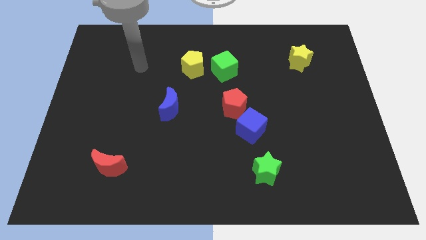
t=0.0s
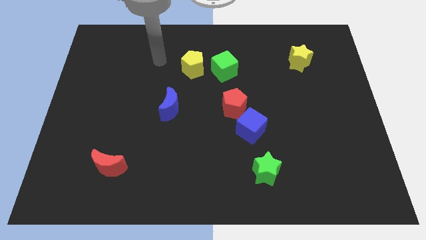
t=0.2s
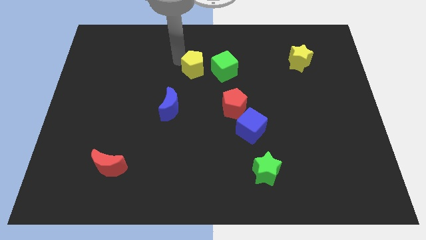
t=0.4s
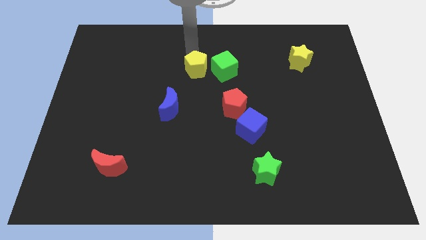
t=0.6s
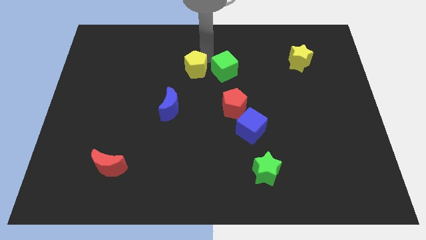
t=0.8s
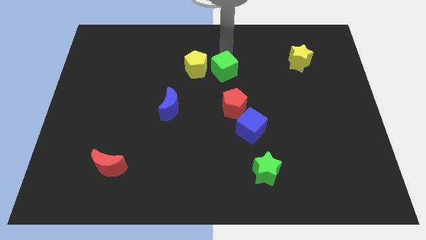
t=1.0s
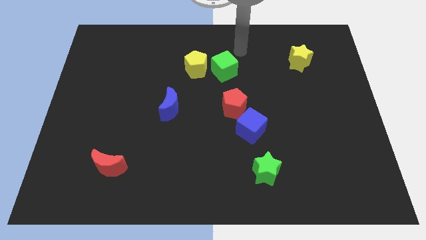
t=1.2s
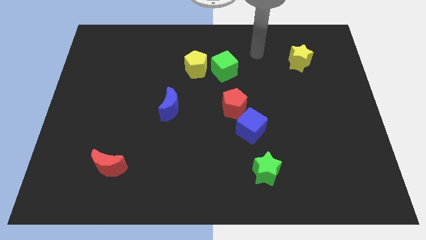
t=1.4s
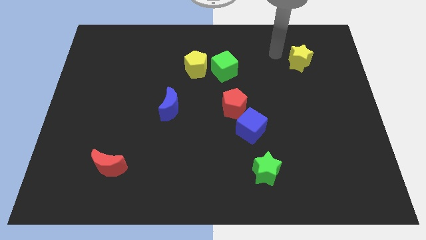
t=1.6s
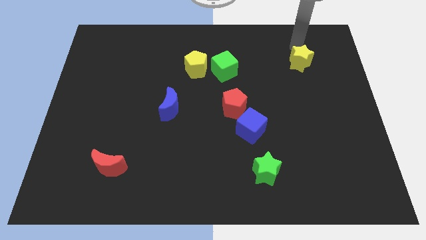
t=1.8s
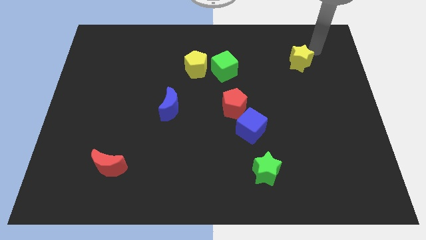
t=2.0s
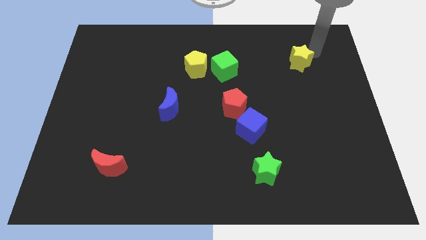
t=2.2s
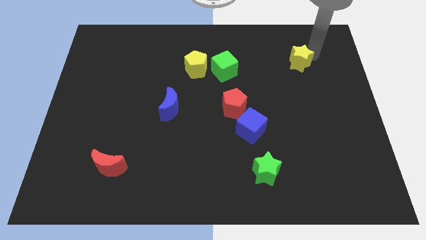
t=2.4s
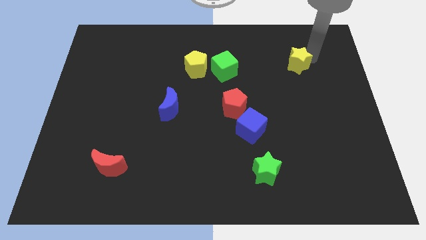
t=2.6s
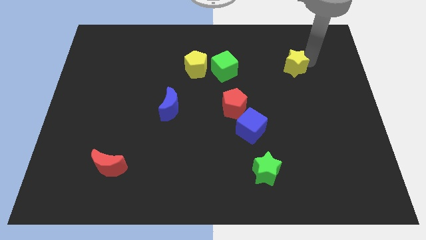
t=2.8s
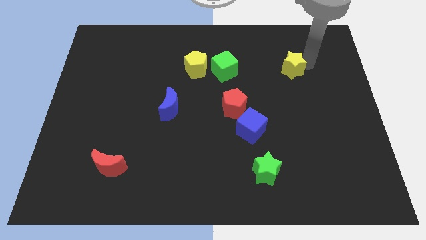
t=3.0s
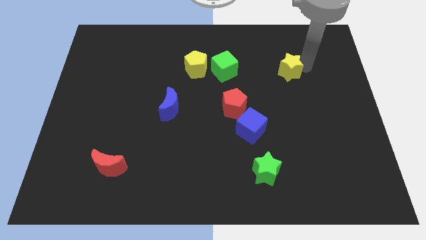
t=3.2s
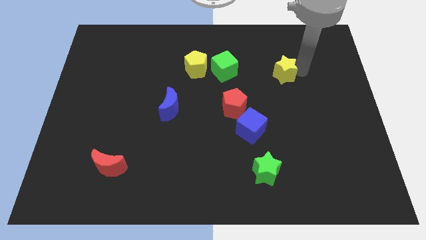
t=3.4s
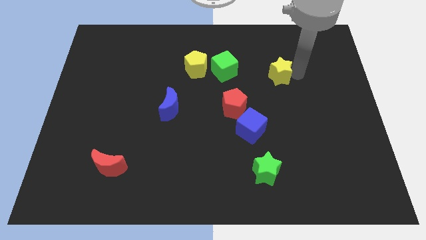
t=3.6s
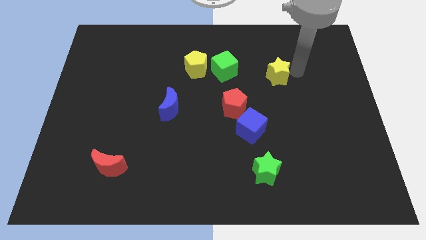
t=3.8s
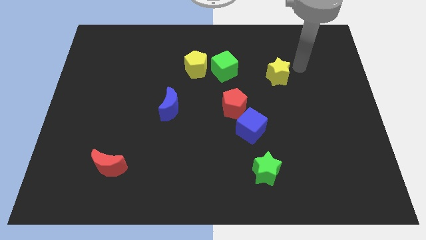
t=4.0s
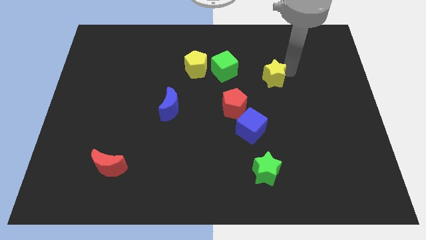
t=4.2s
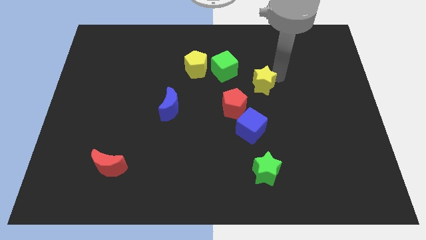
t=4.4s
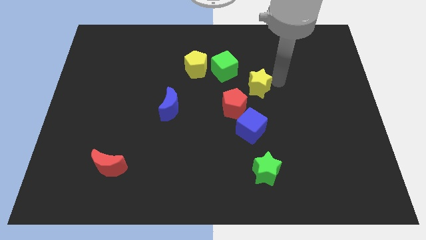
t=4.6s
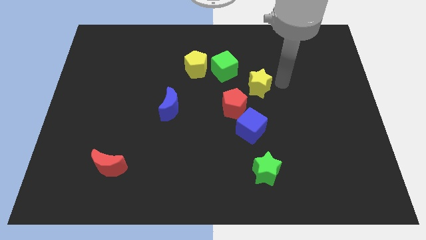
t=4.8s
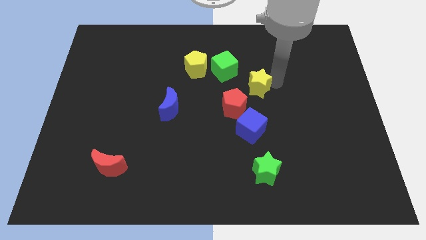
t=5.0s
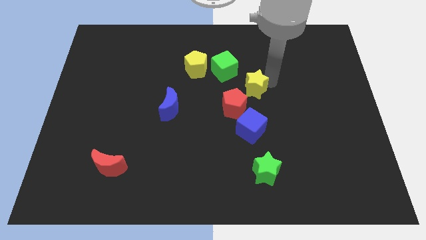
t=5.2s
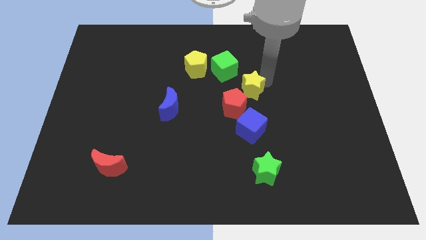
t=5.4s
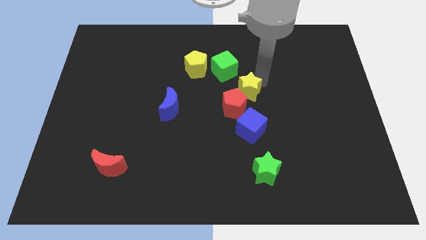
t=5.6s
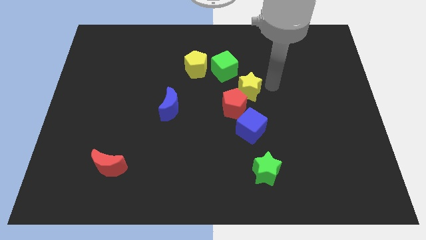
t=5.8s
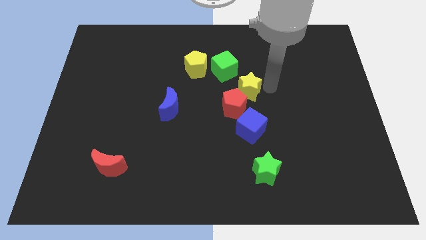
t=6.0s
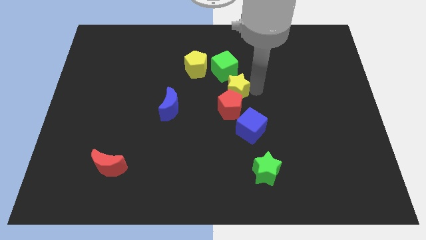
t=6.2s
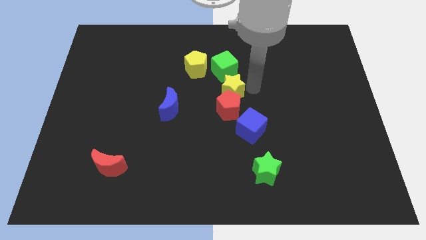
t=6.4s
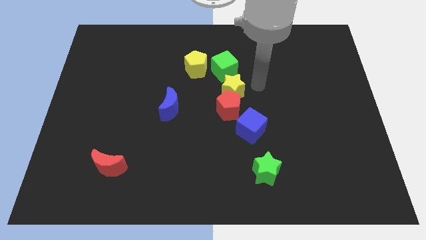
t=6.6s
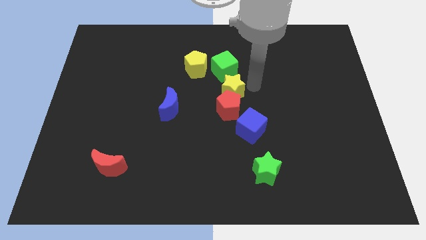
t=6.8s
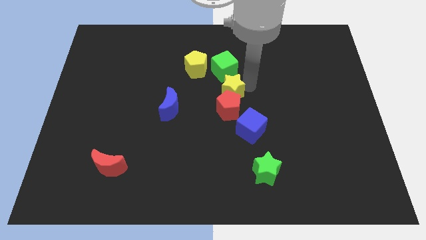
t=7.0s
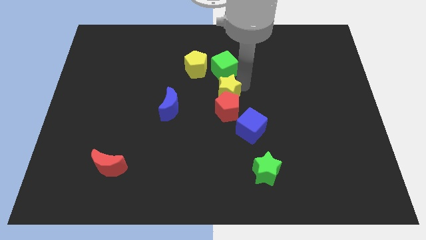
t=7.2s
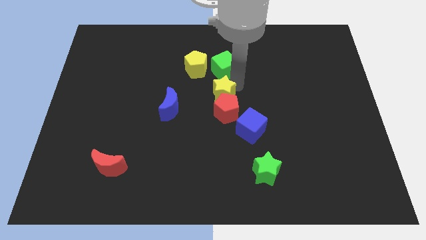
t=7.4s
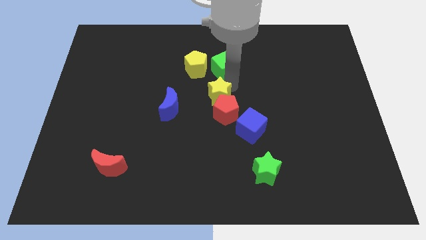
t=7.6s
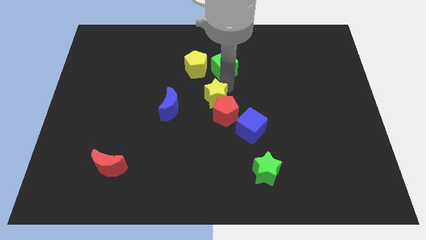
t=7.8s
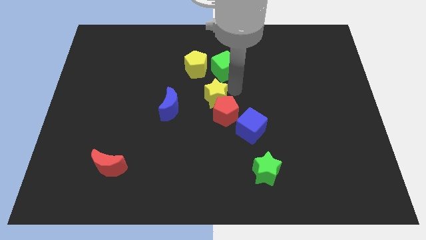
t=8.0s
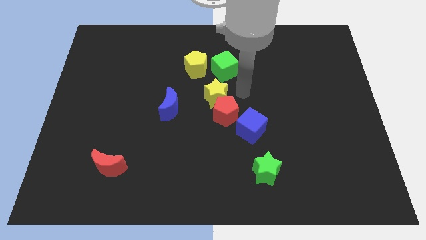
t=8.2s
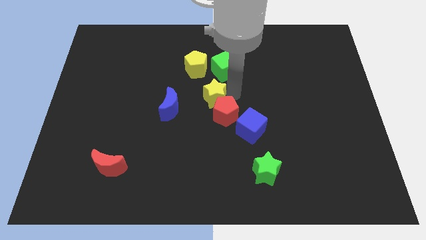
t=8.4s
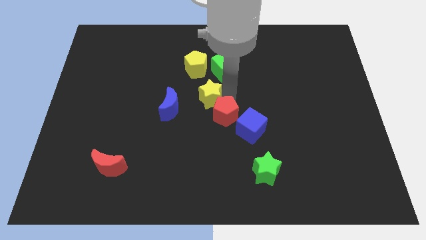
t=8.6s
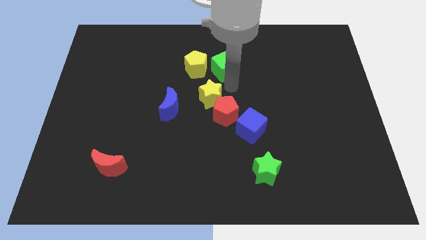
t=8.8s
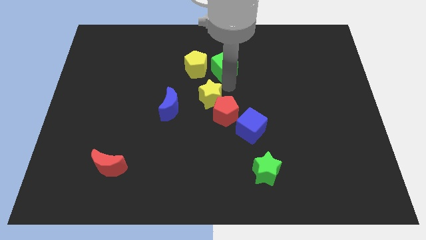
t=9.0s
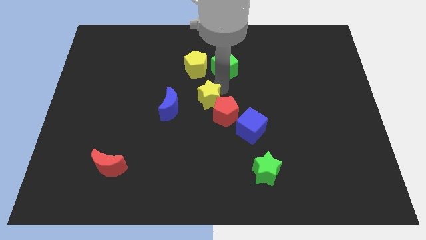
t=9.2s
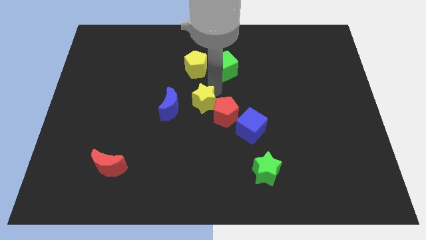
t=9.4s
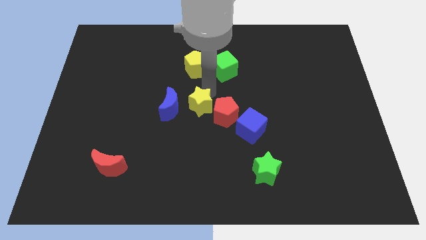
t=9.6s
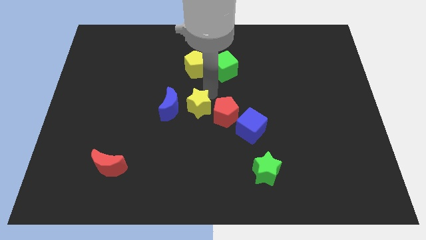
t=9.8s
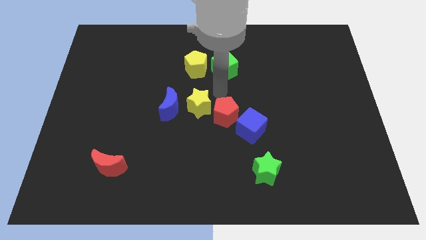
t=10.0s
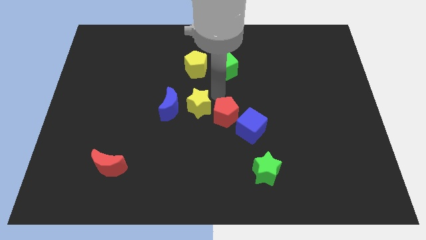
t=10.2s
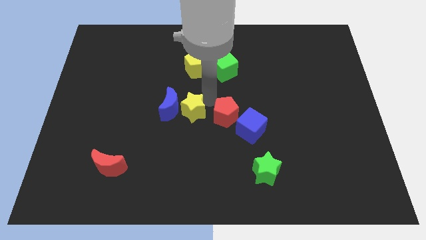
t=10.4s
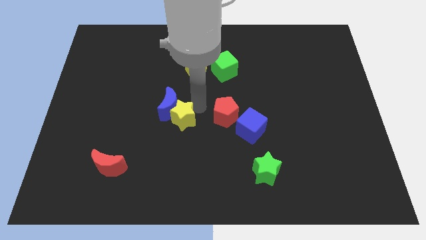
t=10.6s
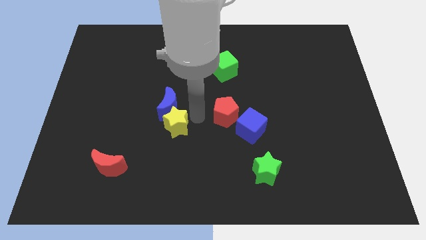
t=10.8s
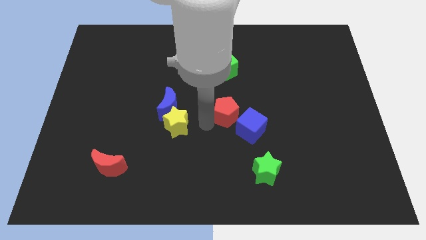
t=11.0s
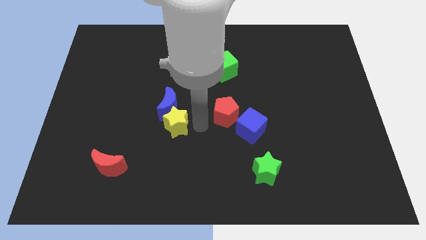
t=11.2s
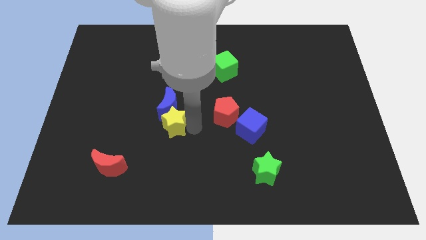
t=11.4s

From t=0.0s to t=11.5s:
push the yellow star to the bottom left side of the blue moon
